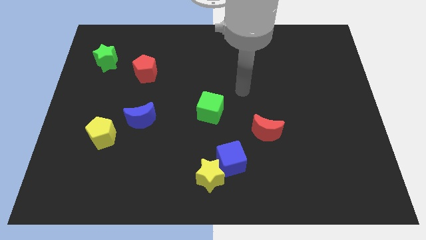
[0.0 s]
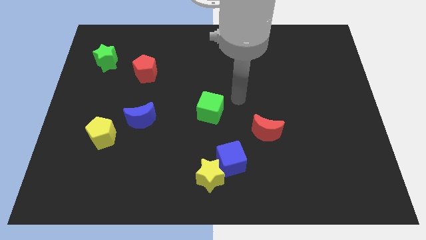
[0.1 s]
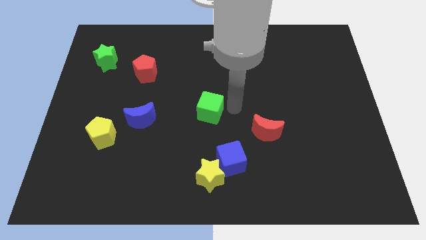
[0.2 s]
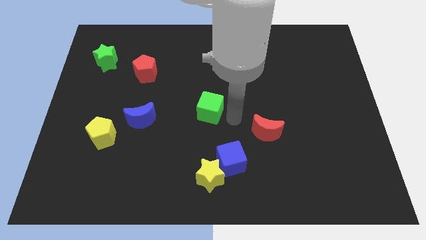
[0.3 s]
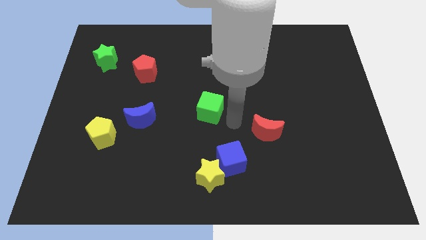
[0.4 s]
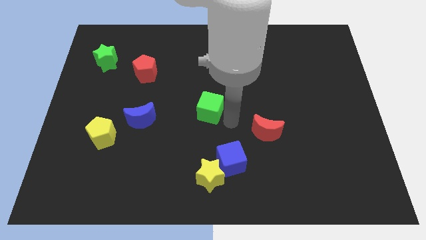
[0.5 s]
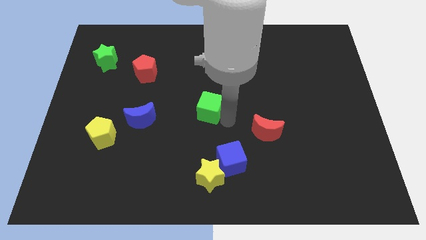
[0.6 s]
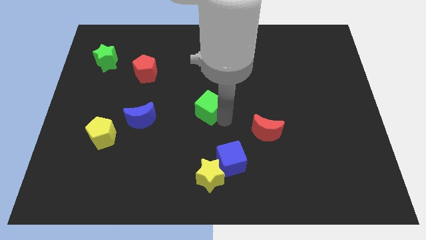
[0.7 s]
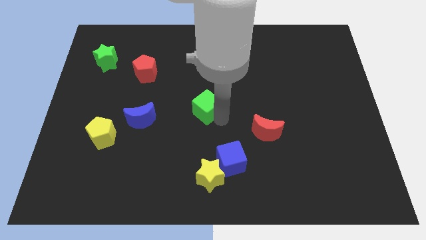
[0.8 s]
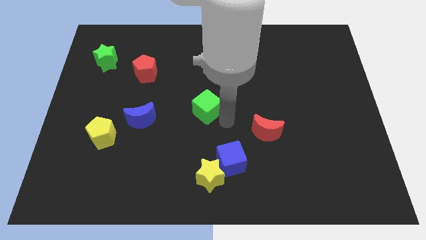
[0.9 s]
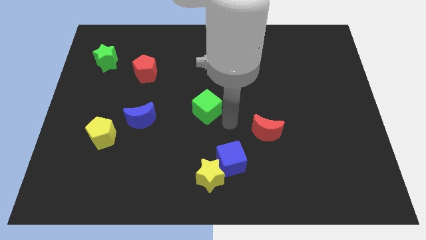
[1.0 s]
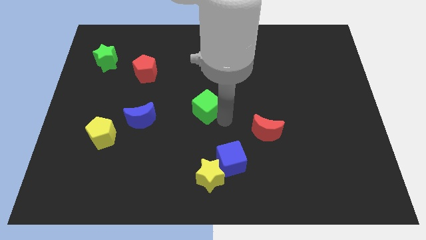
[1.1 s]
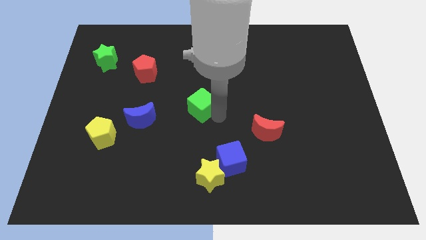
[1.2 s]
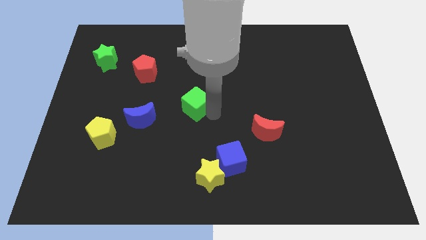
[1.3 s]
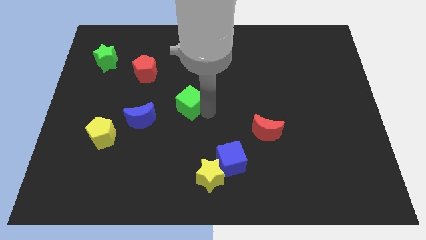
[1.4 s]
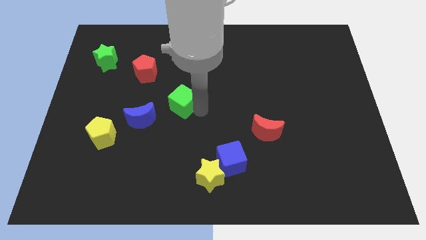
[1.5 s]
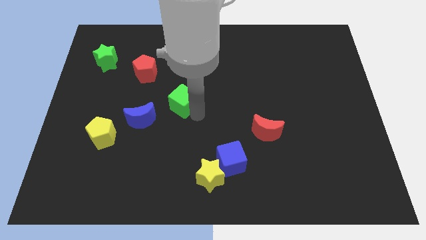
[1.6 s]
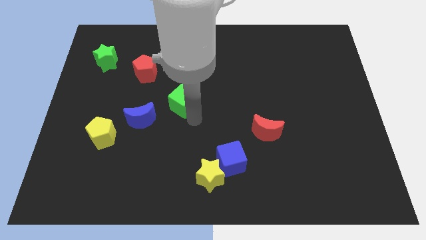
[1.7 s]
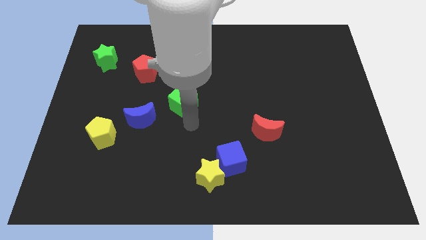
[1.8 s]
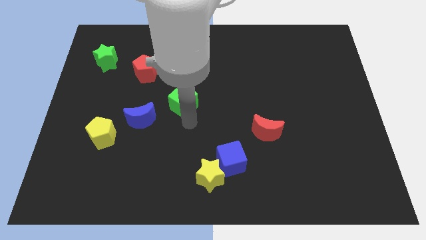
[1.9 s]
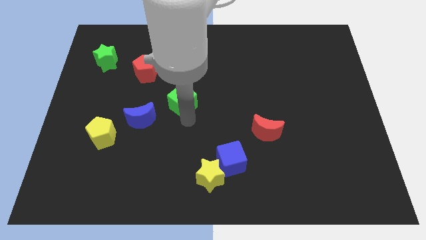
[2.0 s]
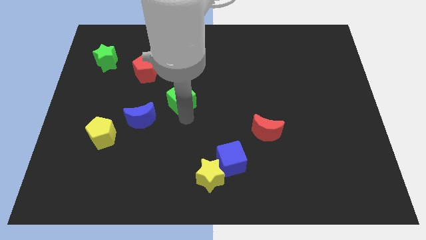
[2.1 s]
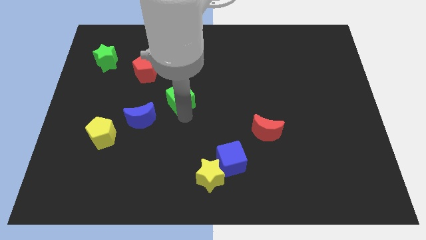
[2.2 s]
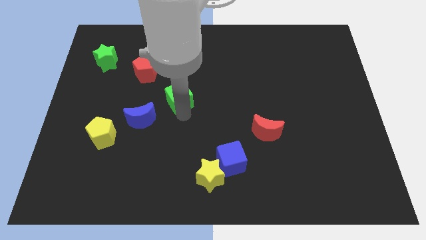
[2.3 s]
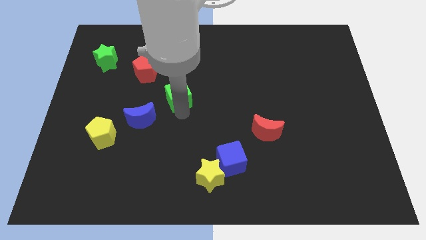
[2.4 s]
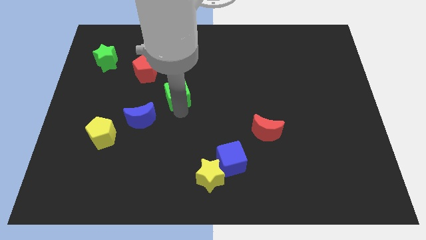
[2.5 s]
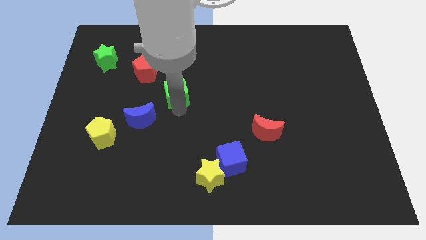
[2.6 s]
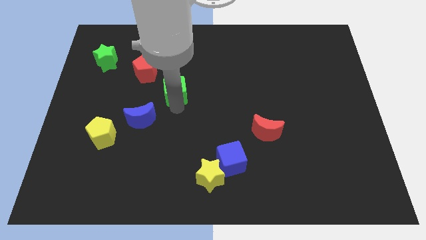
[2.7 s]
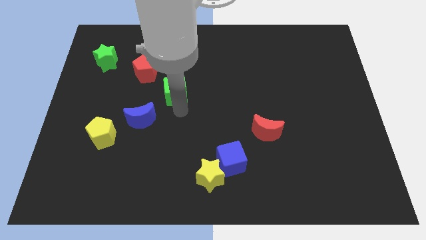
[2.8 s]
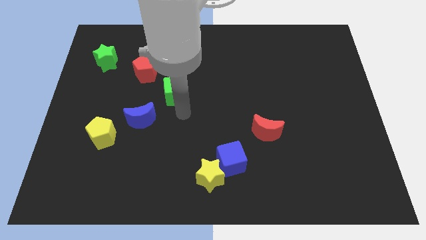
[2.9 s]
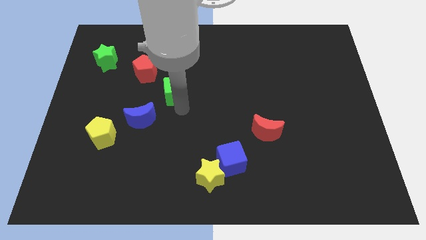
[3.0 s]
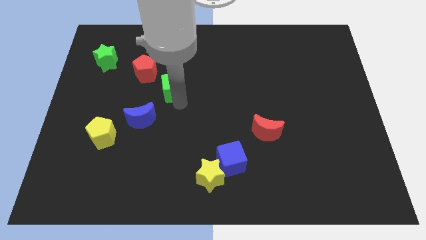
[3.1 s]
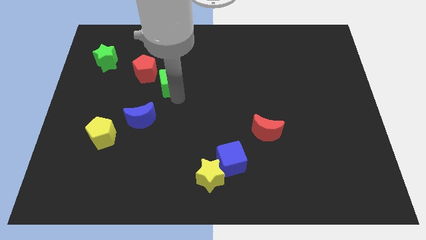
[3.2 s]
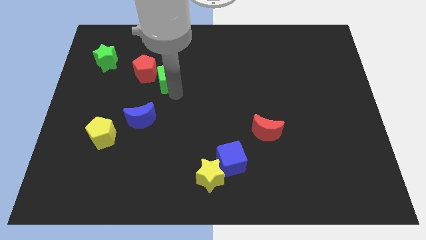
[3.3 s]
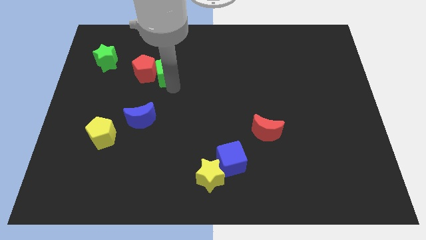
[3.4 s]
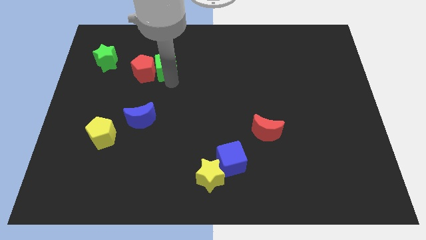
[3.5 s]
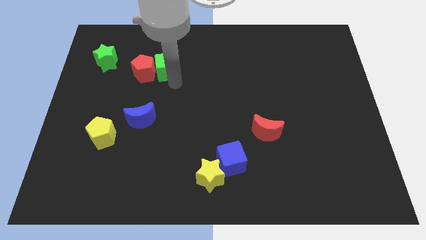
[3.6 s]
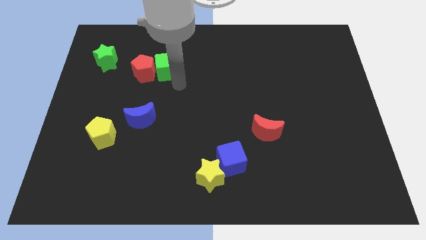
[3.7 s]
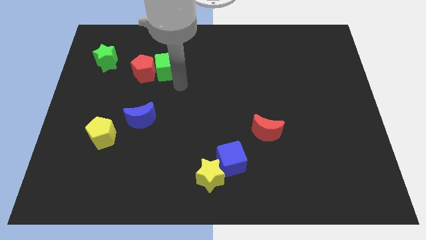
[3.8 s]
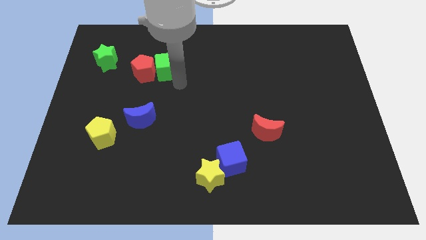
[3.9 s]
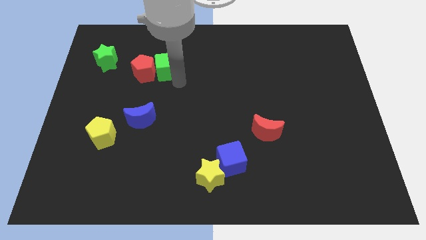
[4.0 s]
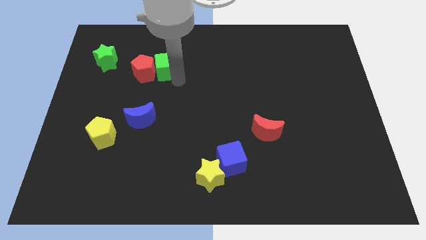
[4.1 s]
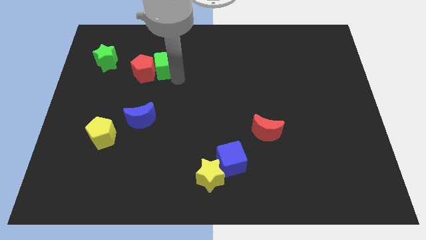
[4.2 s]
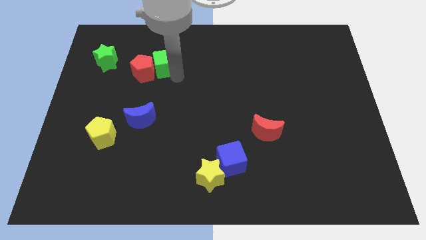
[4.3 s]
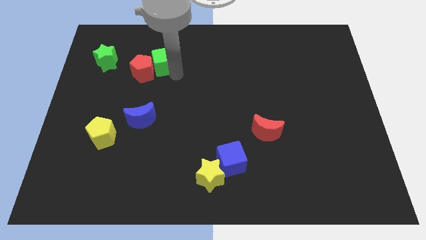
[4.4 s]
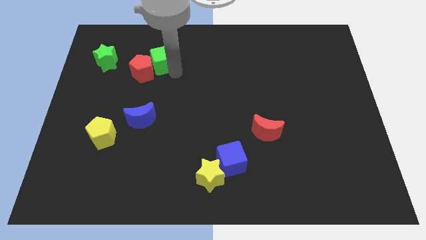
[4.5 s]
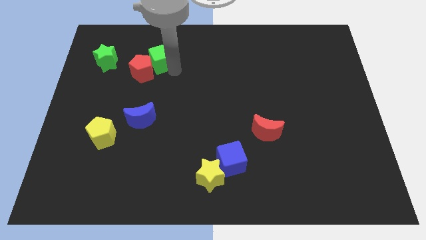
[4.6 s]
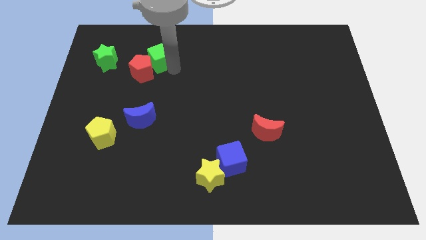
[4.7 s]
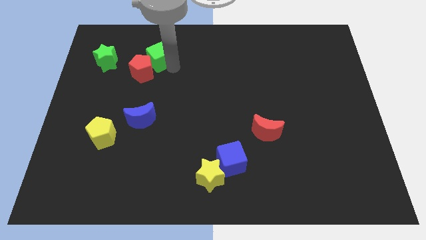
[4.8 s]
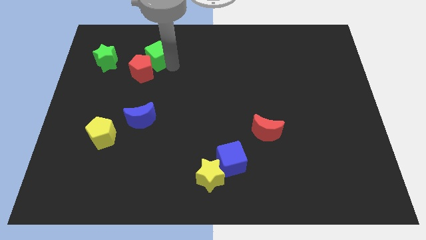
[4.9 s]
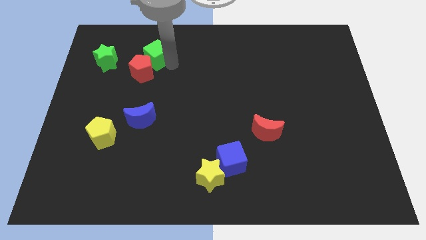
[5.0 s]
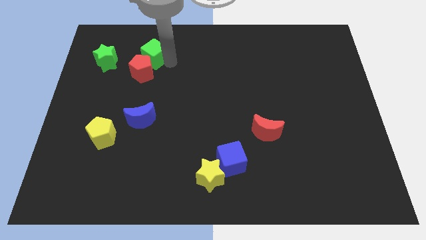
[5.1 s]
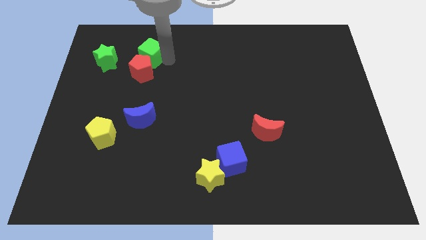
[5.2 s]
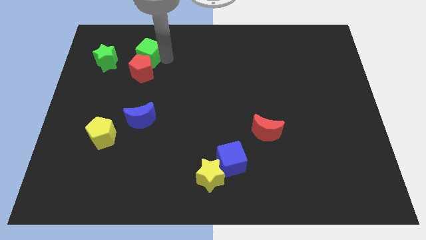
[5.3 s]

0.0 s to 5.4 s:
put the green cube diagonally up and to the left of the red pentagon
